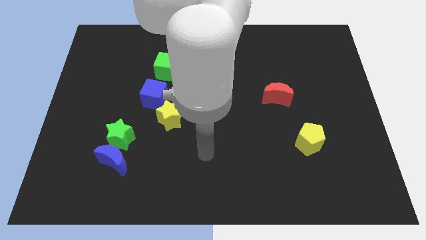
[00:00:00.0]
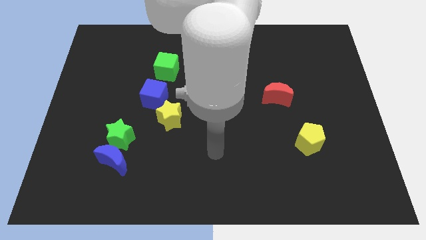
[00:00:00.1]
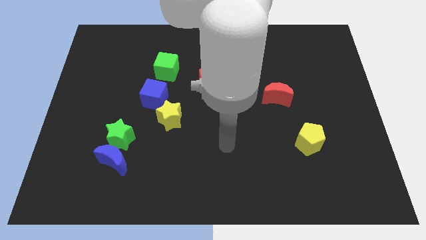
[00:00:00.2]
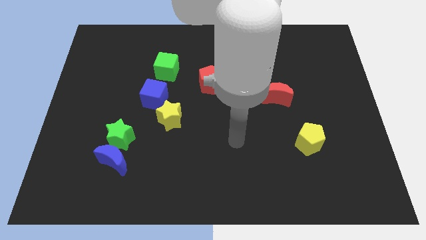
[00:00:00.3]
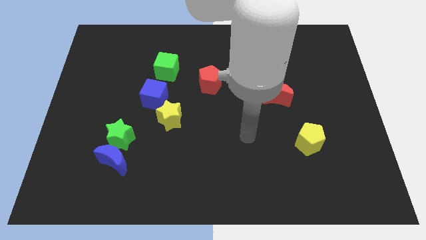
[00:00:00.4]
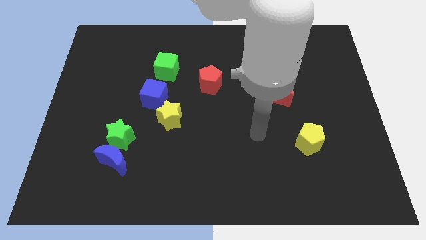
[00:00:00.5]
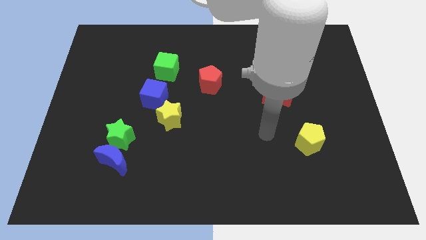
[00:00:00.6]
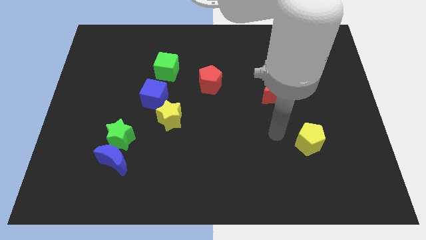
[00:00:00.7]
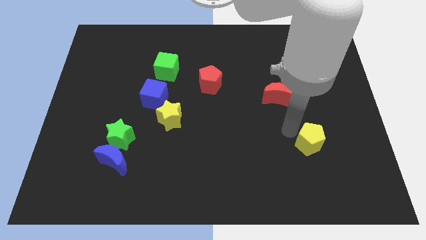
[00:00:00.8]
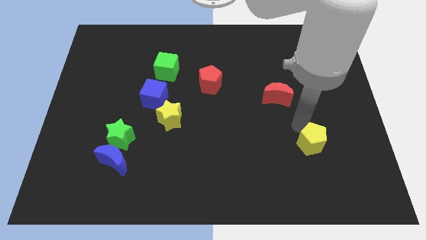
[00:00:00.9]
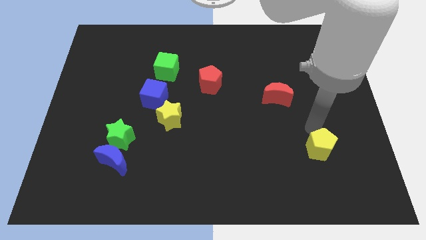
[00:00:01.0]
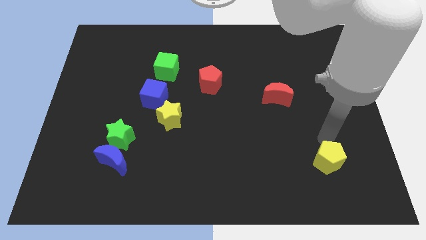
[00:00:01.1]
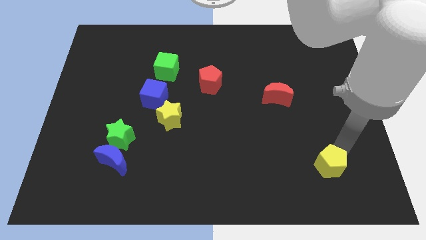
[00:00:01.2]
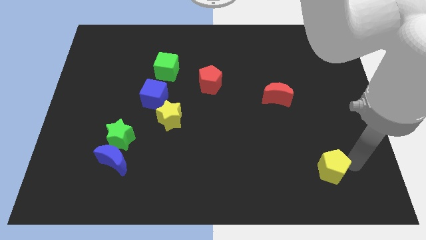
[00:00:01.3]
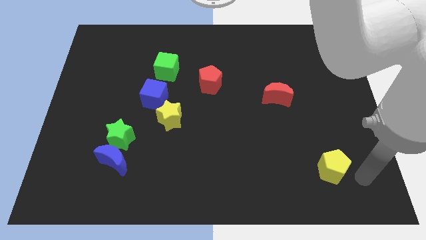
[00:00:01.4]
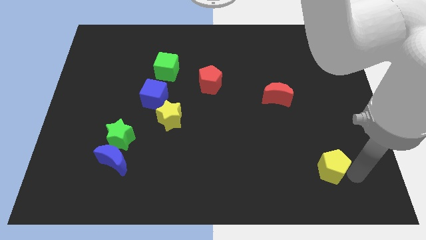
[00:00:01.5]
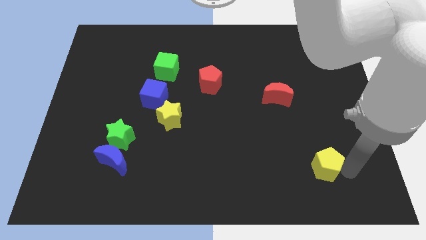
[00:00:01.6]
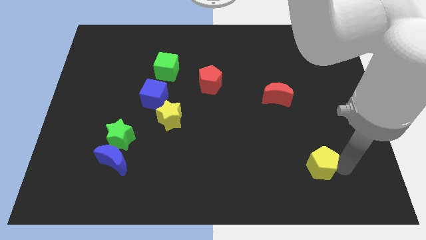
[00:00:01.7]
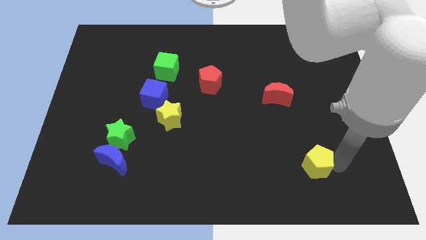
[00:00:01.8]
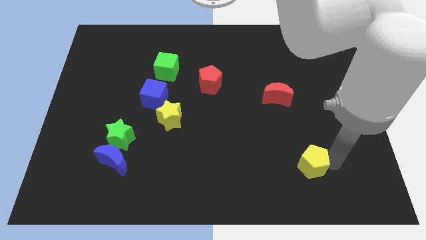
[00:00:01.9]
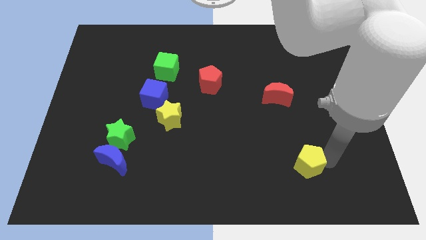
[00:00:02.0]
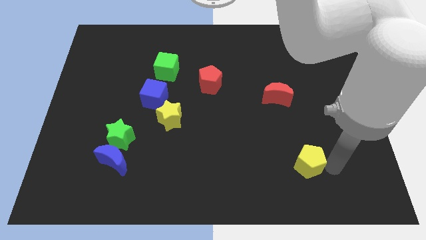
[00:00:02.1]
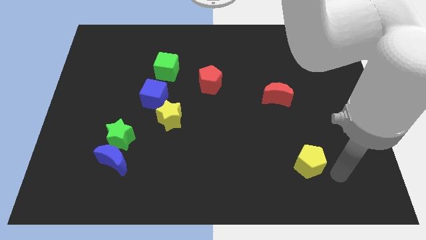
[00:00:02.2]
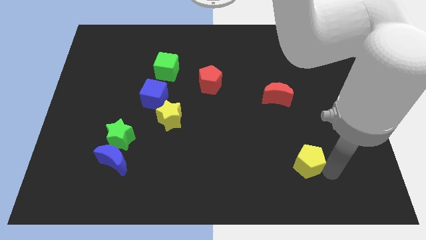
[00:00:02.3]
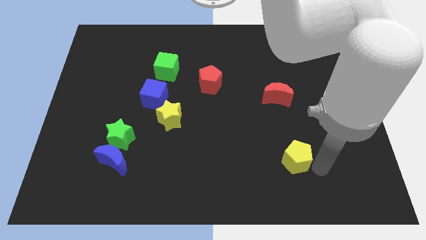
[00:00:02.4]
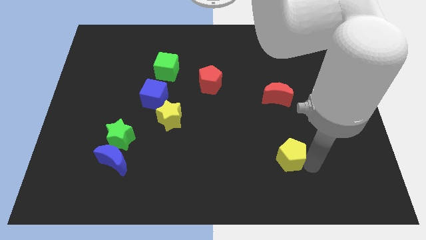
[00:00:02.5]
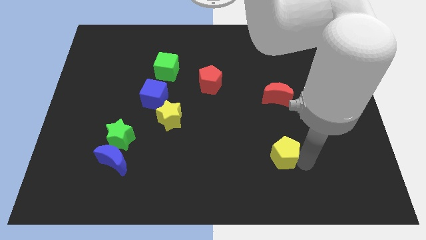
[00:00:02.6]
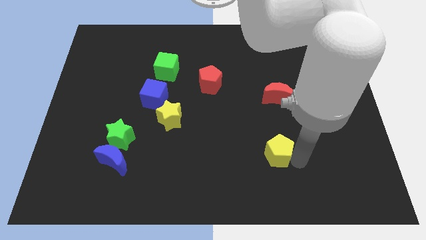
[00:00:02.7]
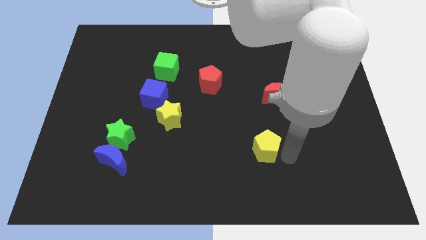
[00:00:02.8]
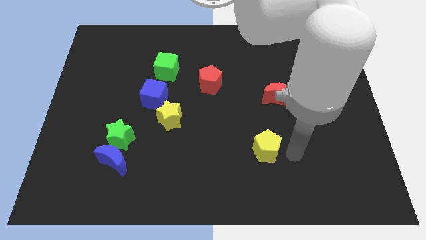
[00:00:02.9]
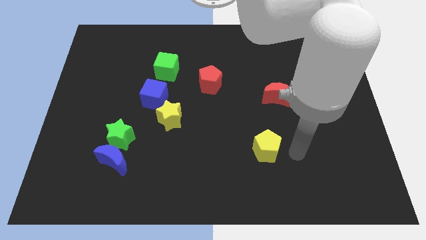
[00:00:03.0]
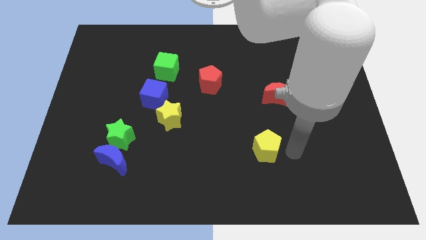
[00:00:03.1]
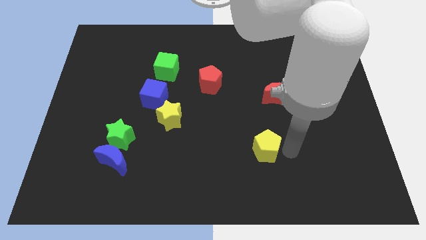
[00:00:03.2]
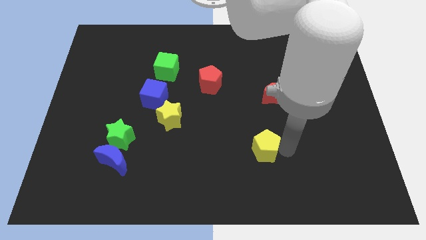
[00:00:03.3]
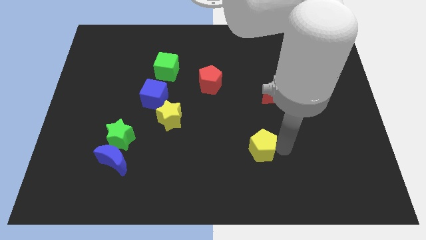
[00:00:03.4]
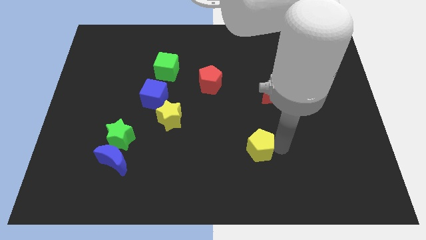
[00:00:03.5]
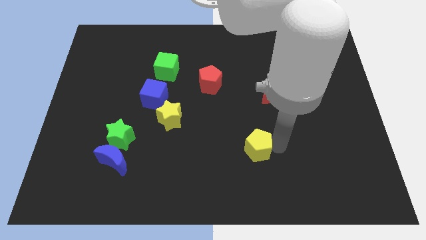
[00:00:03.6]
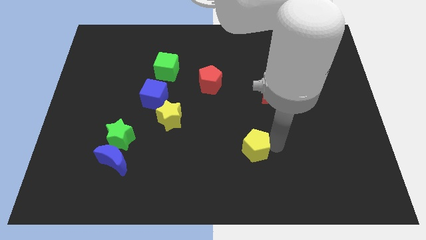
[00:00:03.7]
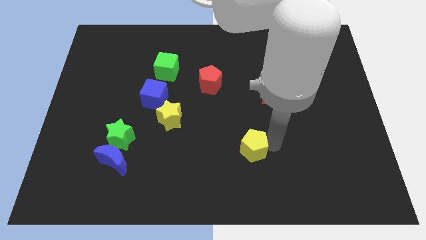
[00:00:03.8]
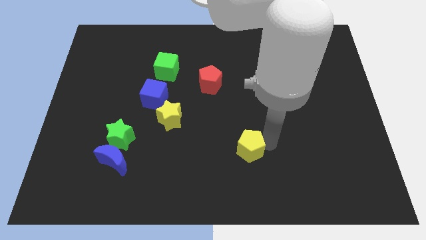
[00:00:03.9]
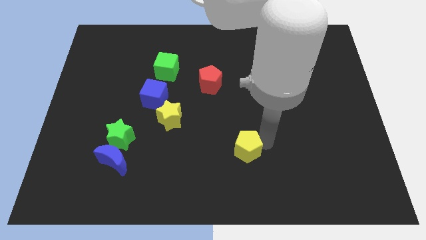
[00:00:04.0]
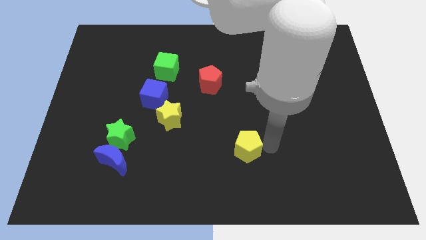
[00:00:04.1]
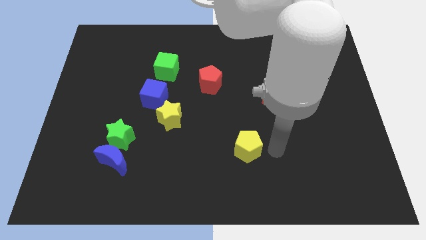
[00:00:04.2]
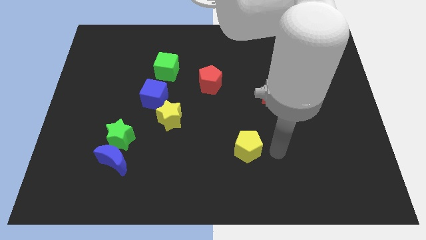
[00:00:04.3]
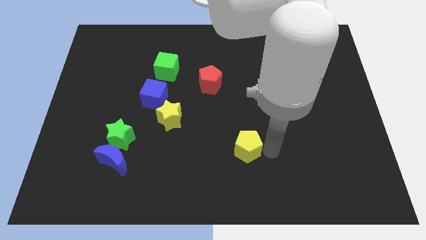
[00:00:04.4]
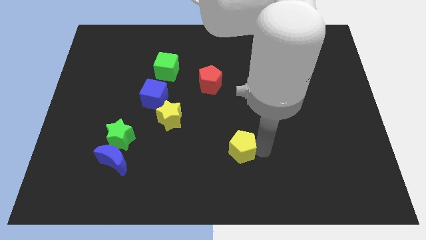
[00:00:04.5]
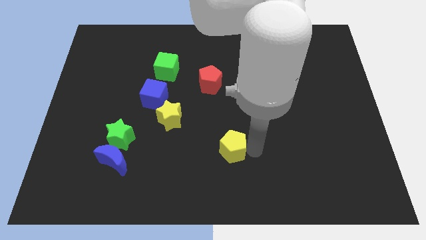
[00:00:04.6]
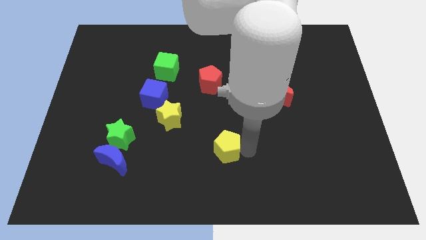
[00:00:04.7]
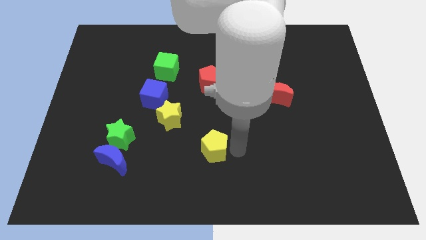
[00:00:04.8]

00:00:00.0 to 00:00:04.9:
move the yellow pentagon left
